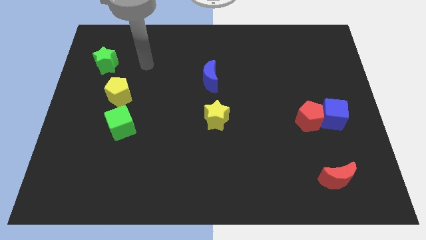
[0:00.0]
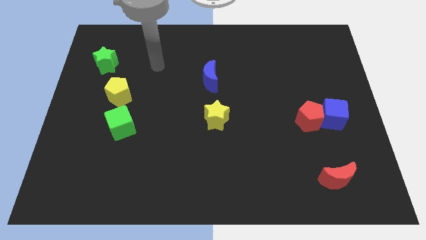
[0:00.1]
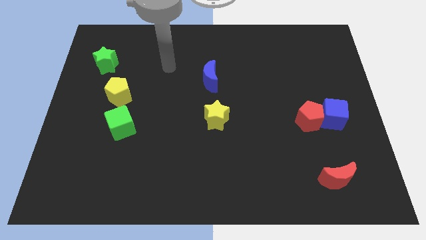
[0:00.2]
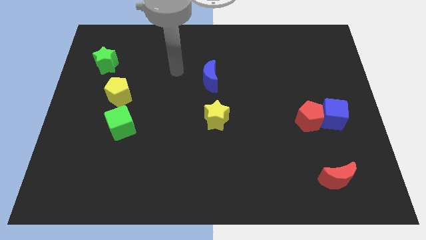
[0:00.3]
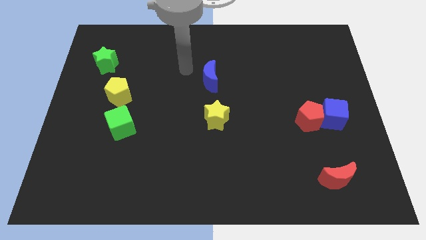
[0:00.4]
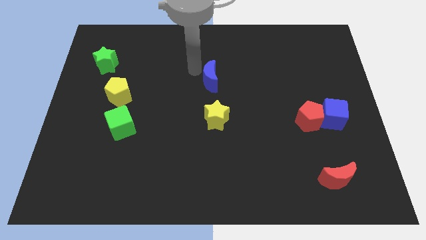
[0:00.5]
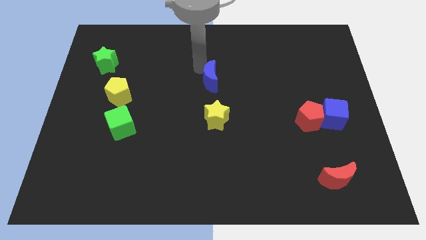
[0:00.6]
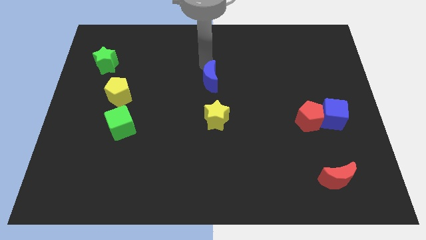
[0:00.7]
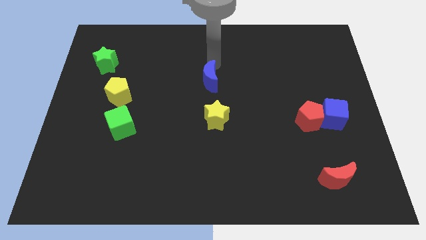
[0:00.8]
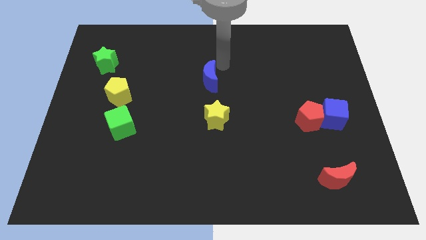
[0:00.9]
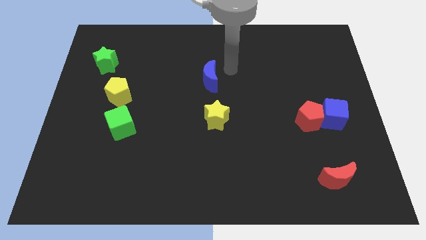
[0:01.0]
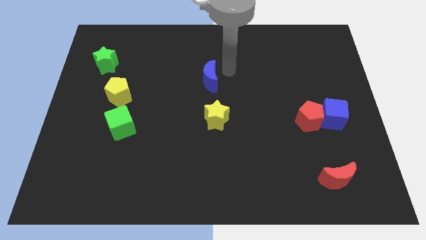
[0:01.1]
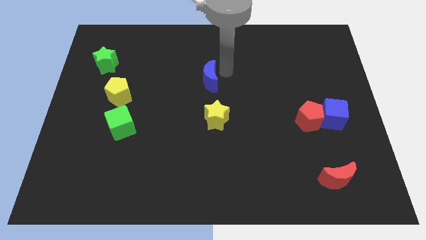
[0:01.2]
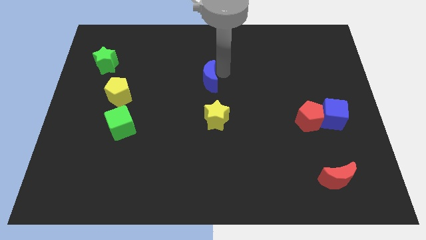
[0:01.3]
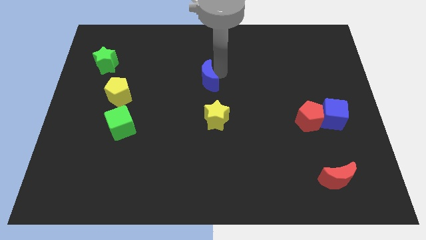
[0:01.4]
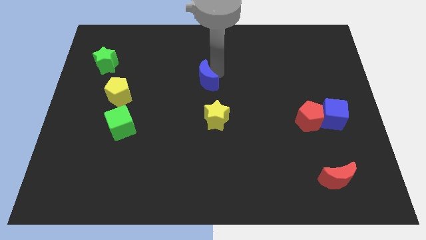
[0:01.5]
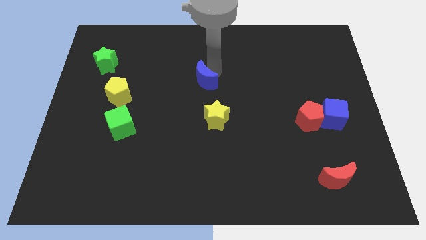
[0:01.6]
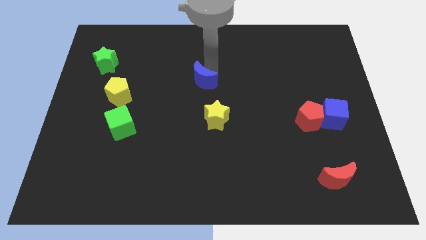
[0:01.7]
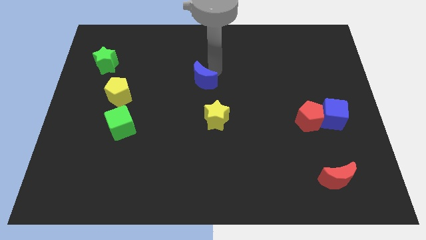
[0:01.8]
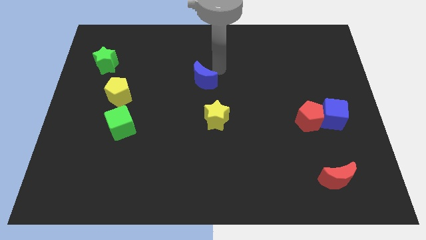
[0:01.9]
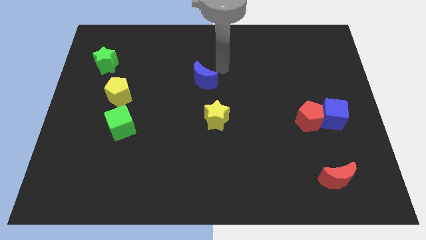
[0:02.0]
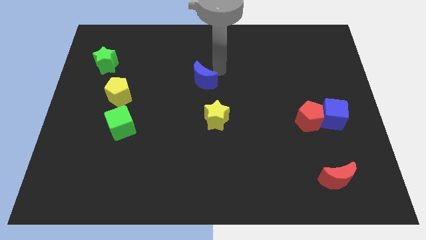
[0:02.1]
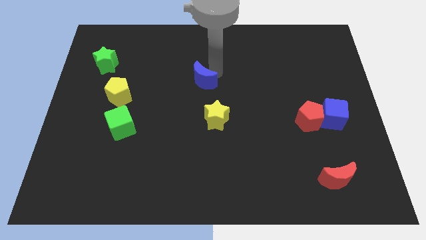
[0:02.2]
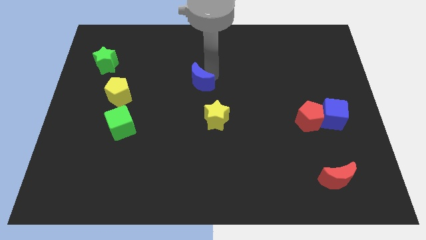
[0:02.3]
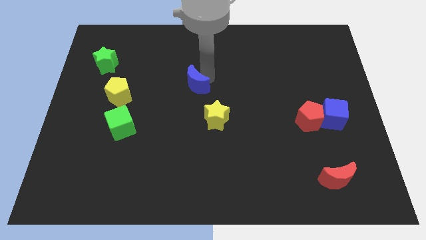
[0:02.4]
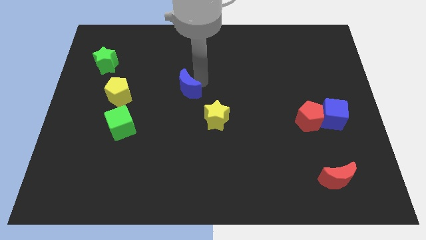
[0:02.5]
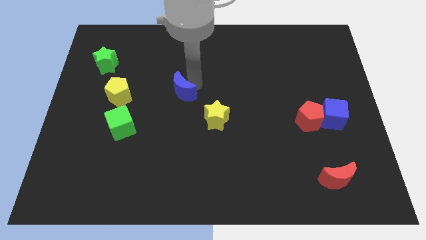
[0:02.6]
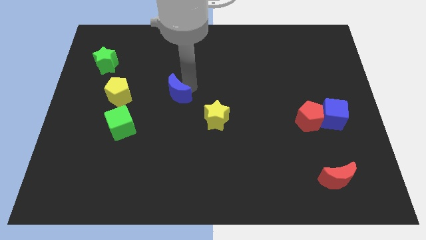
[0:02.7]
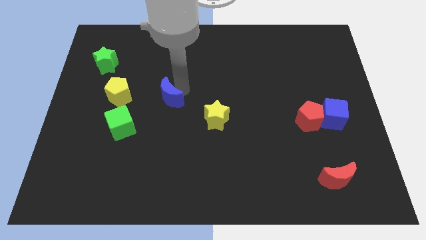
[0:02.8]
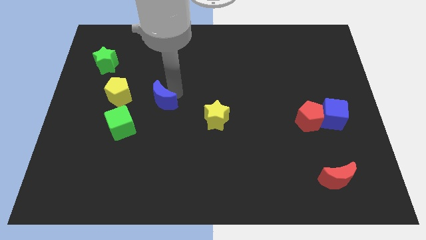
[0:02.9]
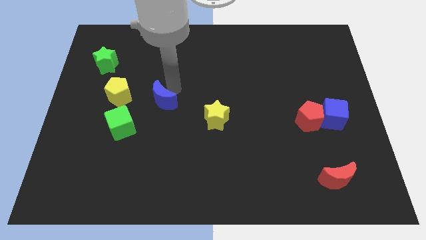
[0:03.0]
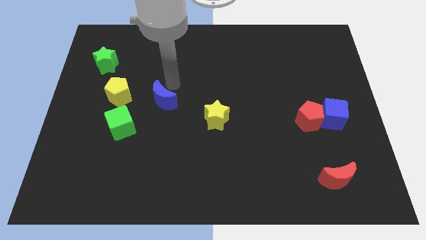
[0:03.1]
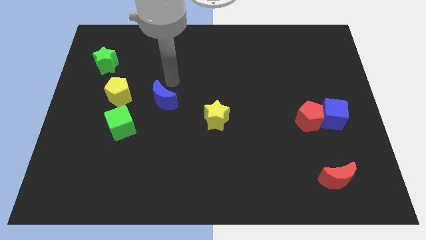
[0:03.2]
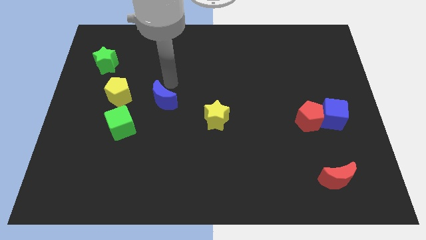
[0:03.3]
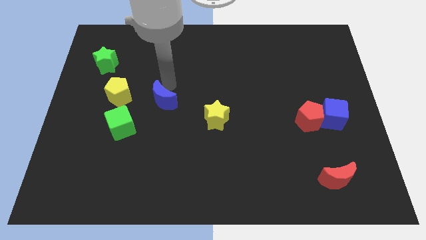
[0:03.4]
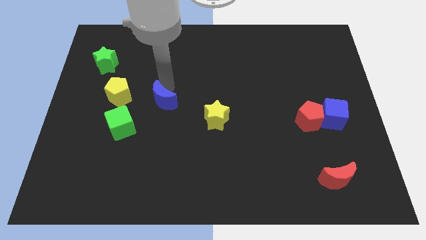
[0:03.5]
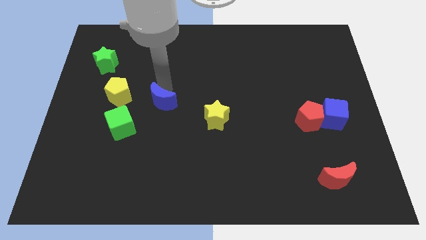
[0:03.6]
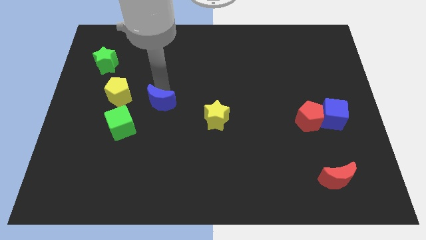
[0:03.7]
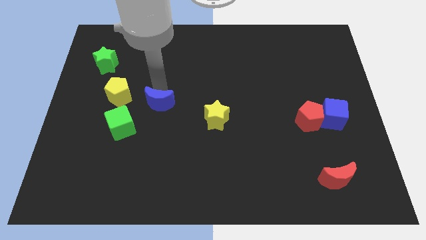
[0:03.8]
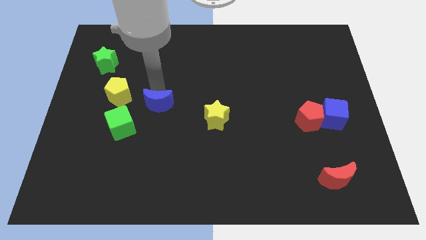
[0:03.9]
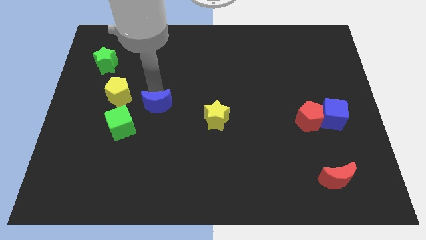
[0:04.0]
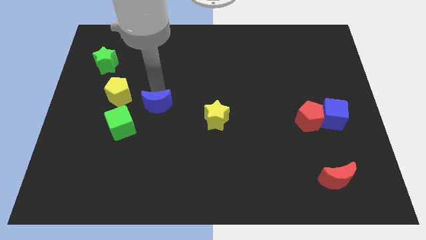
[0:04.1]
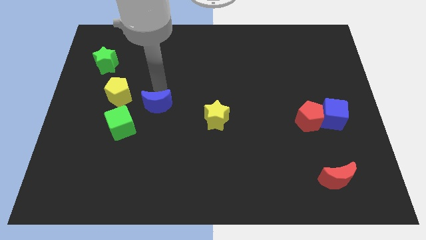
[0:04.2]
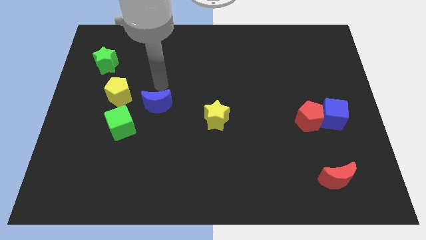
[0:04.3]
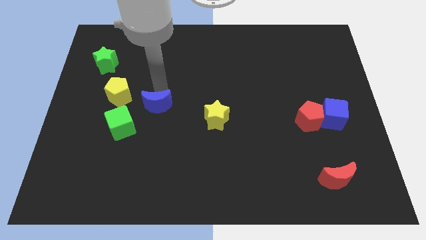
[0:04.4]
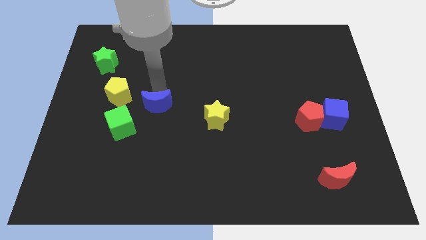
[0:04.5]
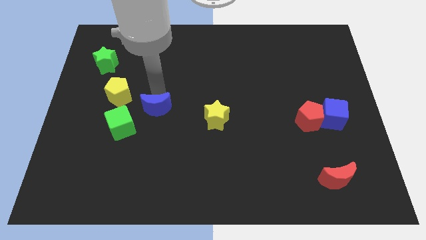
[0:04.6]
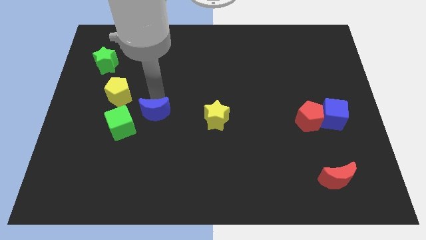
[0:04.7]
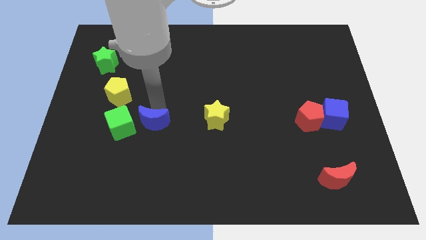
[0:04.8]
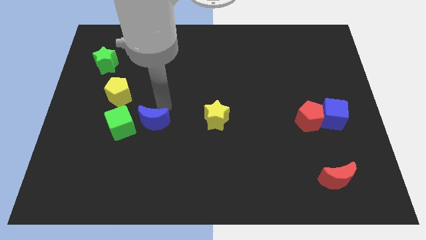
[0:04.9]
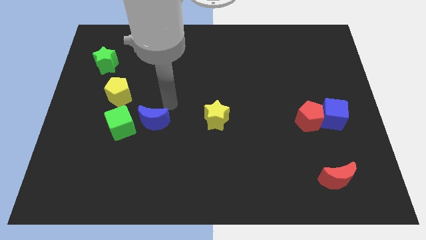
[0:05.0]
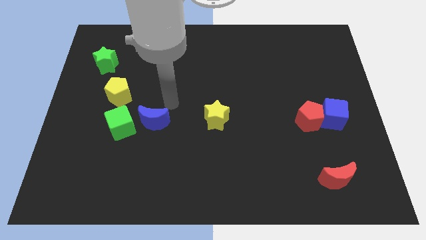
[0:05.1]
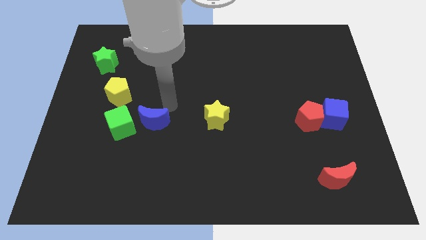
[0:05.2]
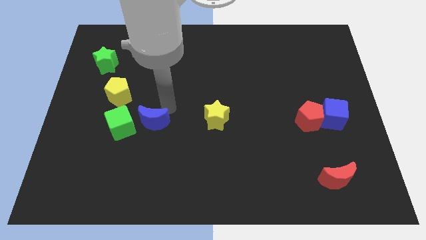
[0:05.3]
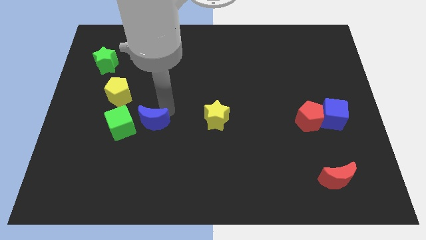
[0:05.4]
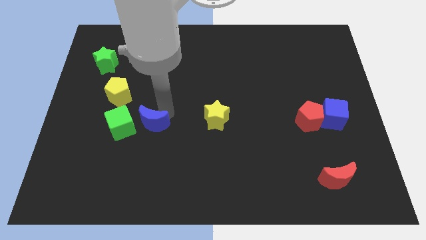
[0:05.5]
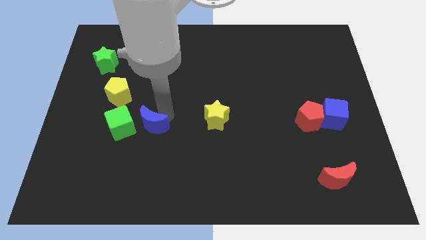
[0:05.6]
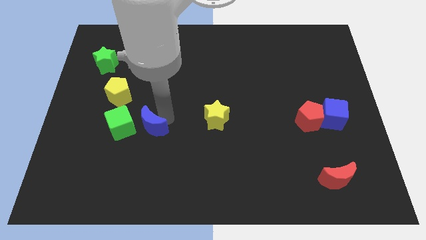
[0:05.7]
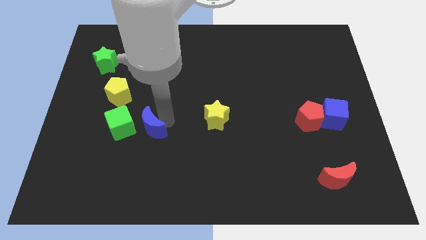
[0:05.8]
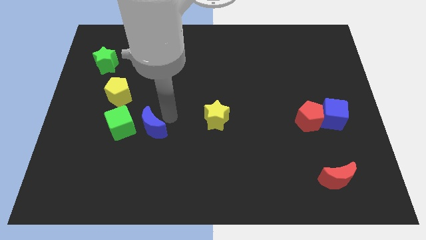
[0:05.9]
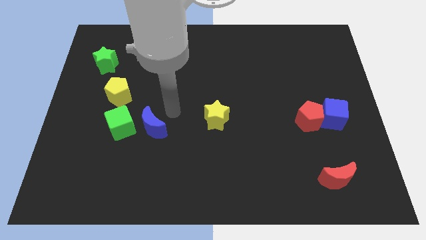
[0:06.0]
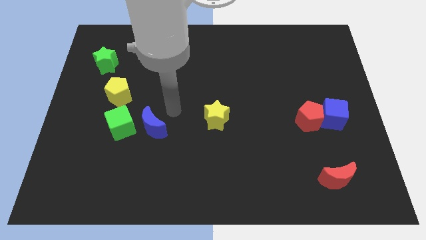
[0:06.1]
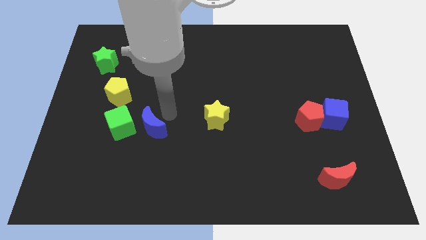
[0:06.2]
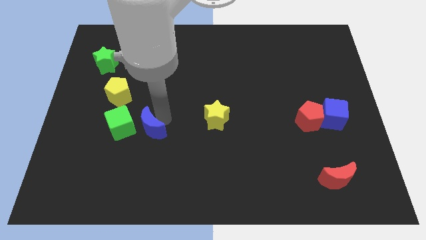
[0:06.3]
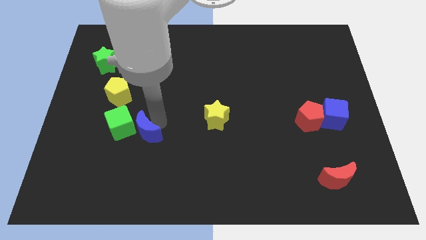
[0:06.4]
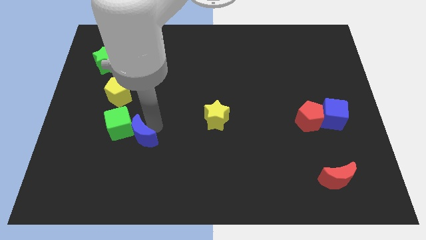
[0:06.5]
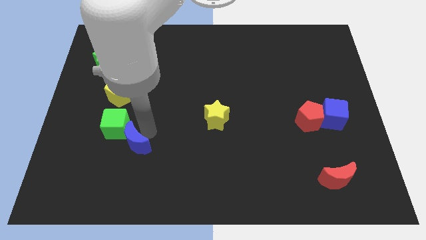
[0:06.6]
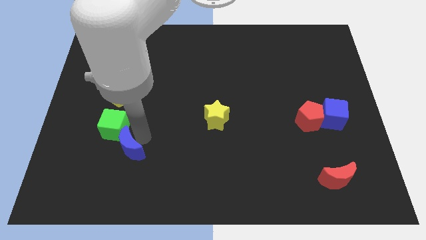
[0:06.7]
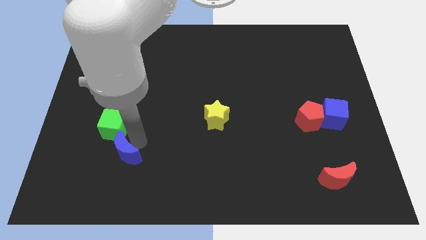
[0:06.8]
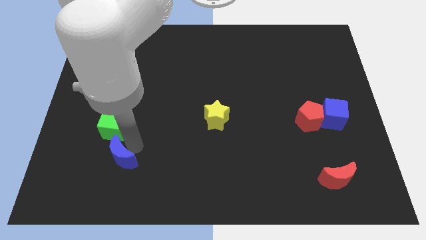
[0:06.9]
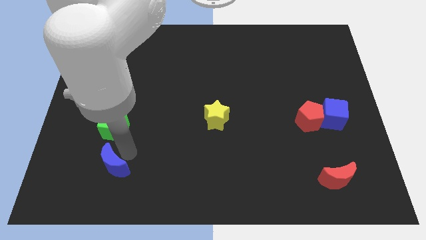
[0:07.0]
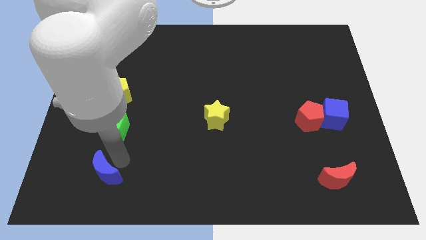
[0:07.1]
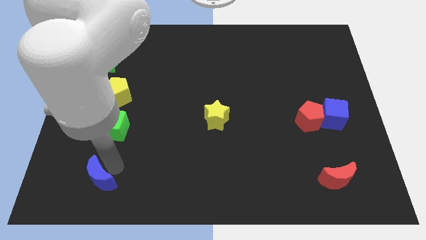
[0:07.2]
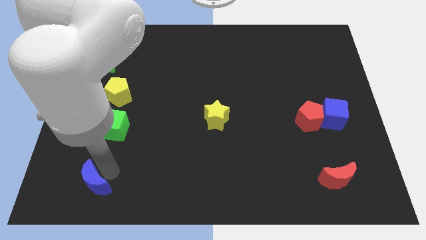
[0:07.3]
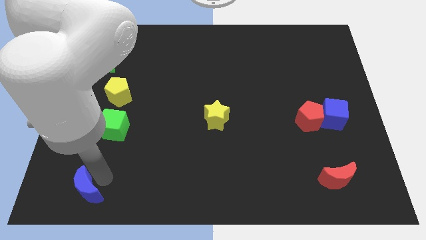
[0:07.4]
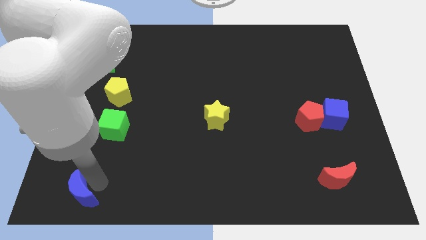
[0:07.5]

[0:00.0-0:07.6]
slide the blue moon to the lower left corner
